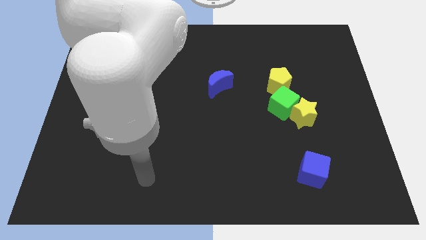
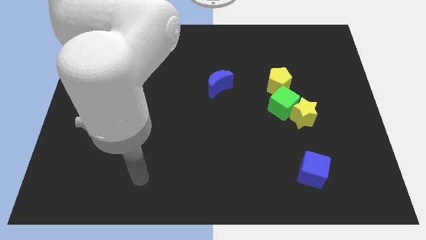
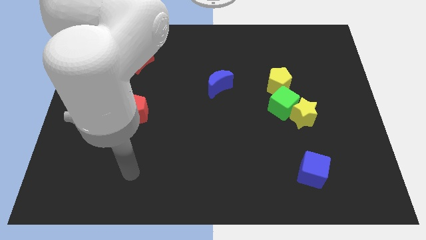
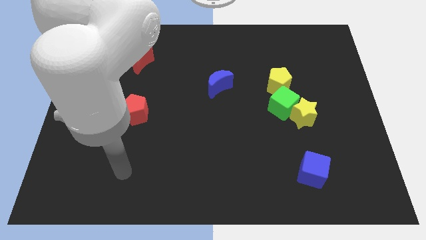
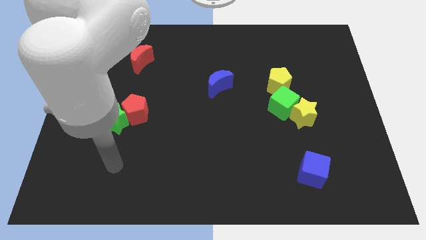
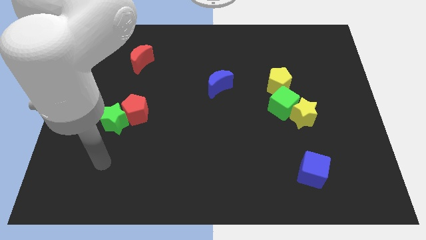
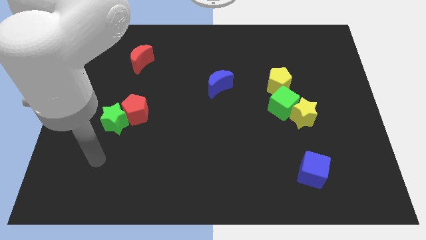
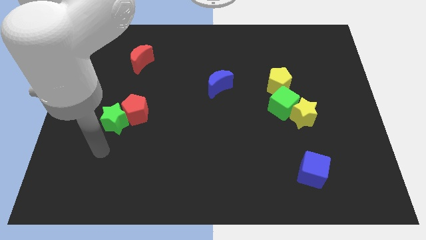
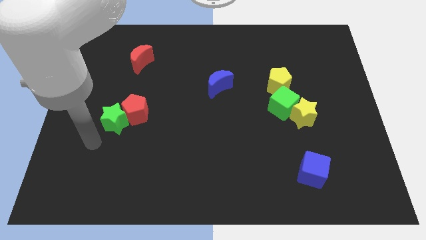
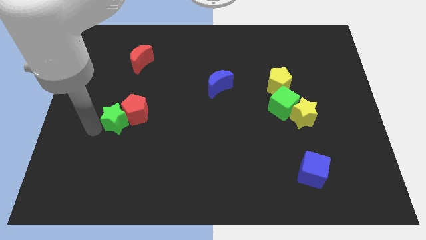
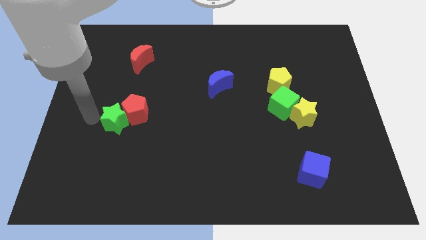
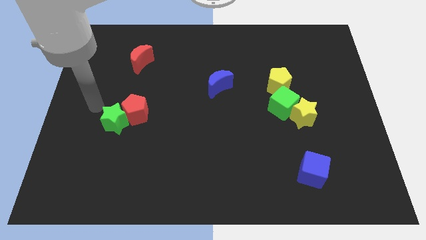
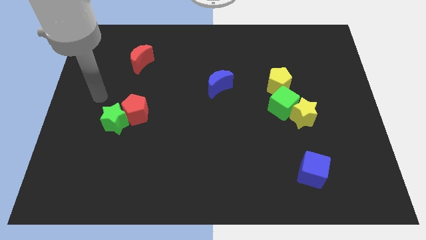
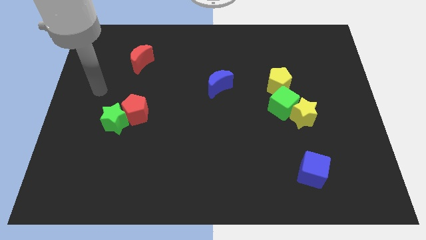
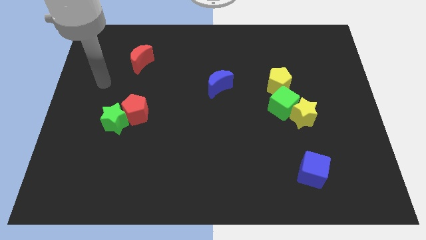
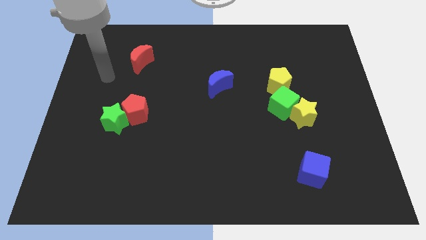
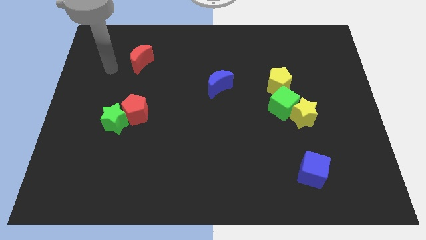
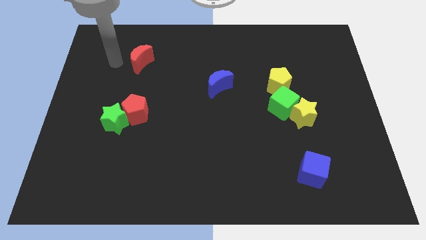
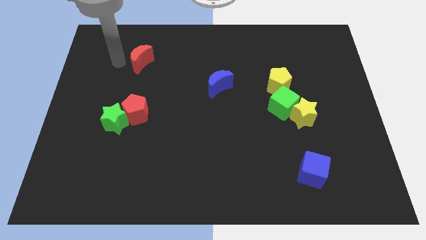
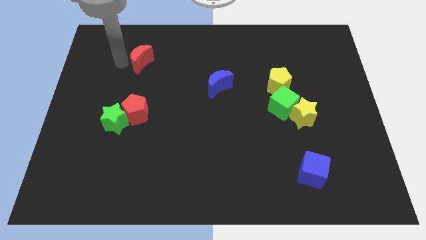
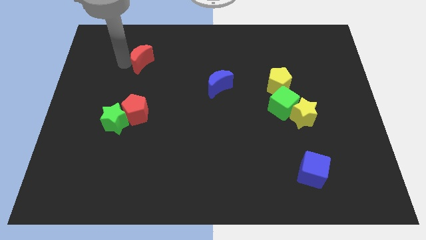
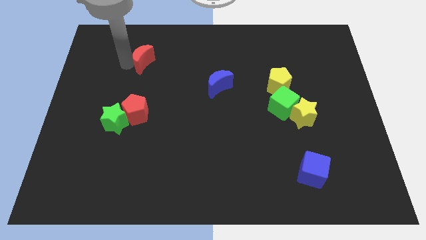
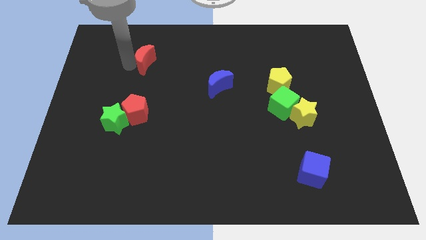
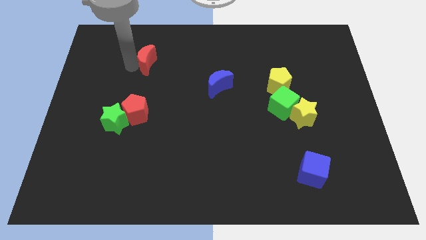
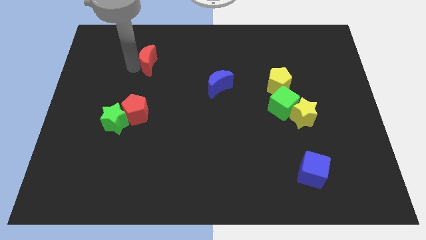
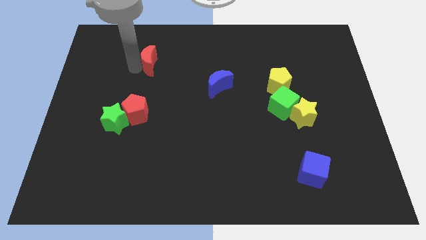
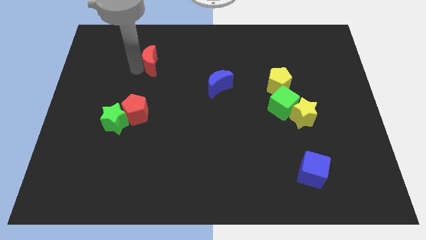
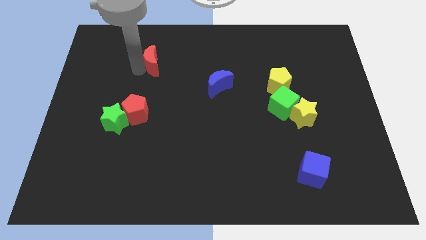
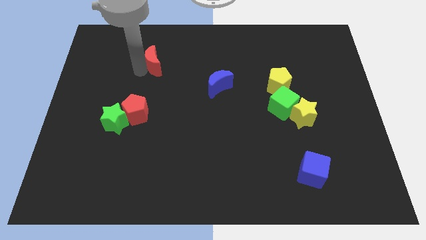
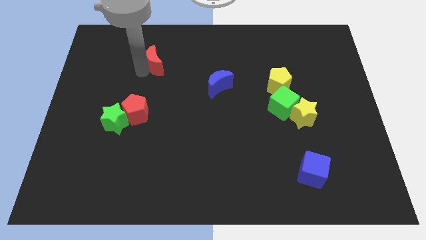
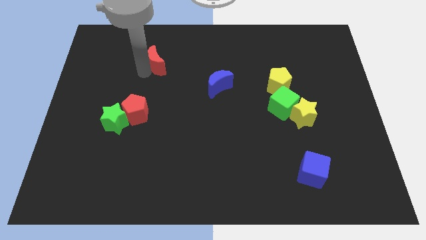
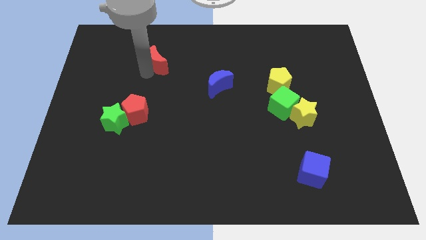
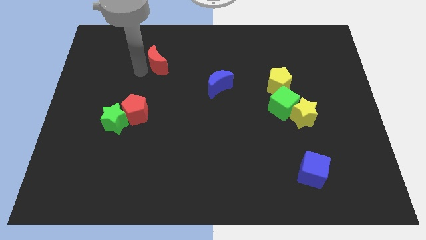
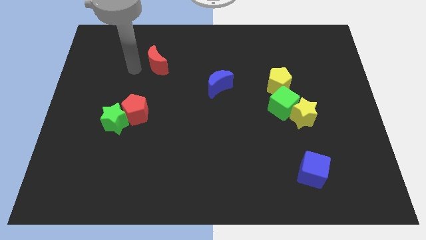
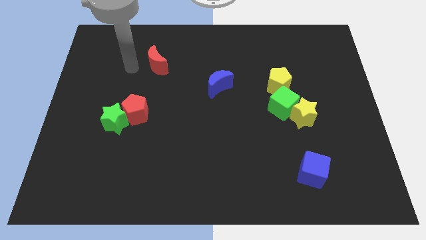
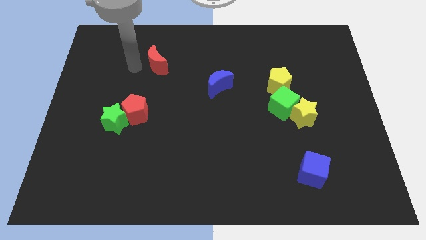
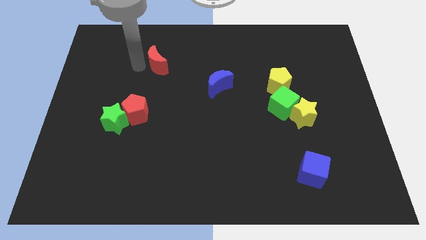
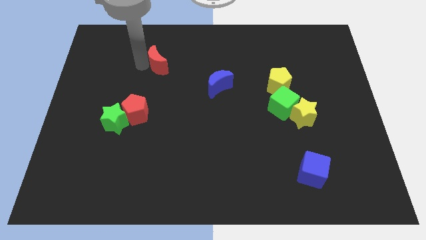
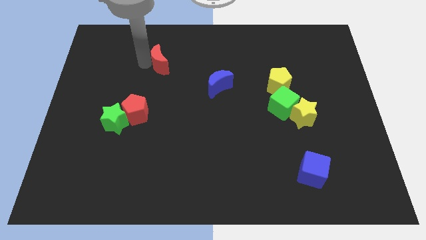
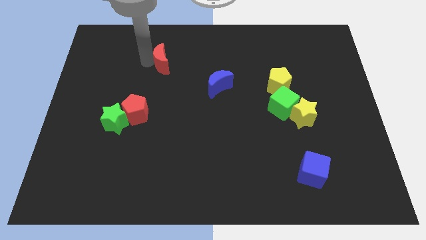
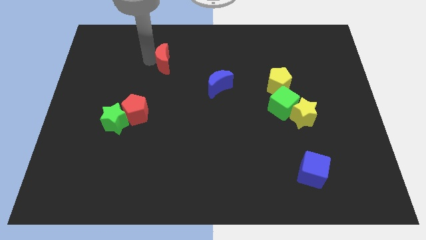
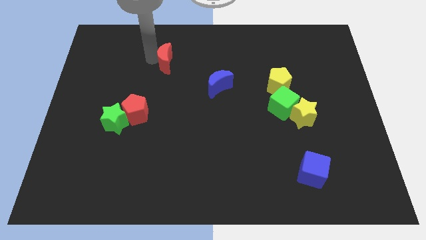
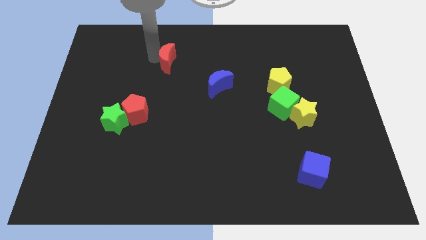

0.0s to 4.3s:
slightly push the red moon right

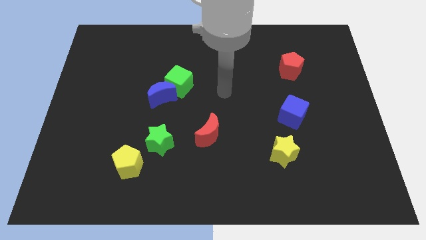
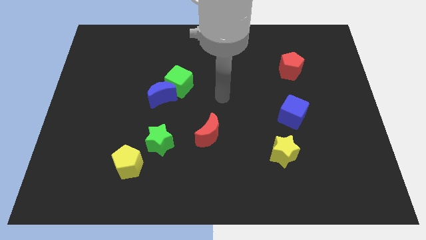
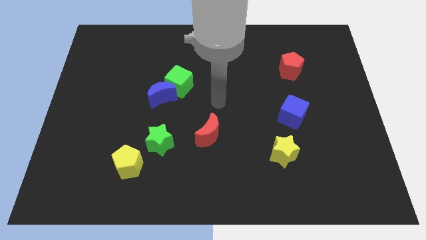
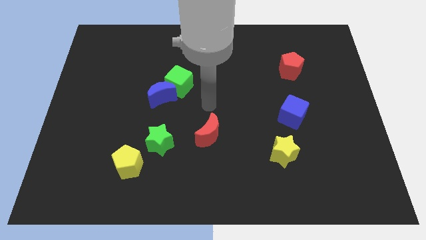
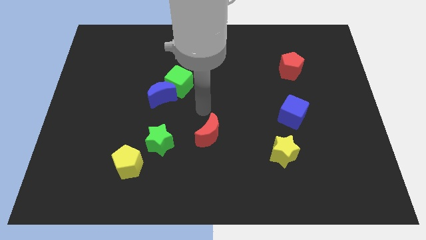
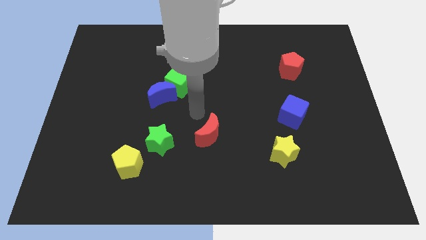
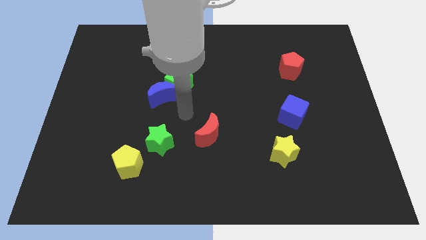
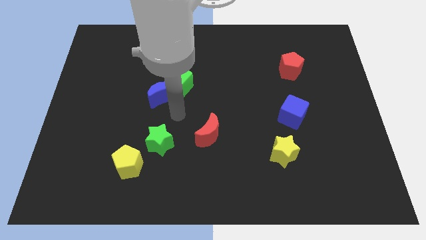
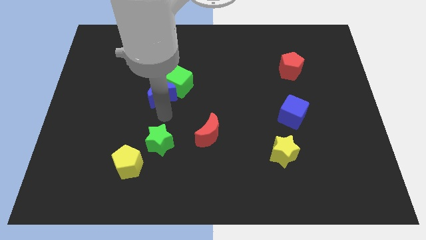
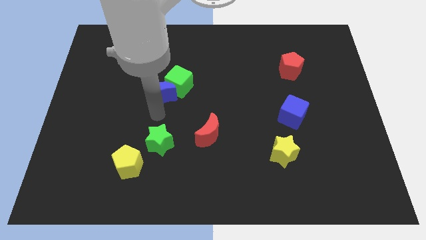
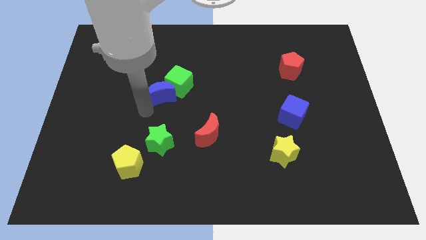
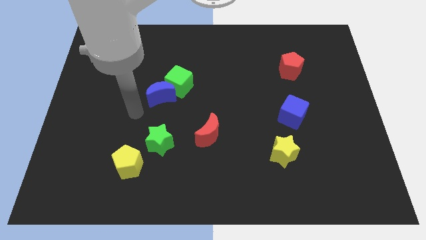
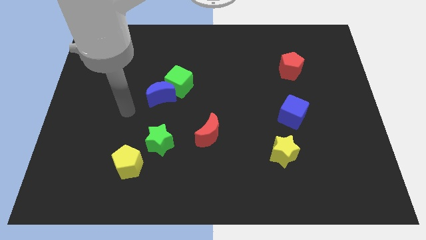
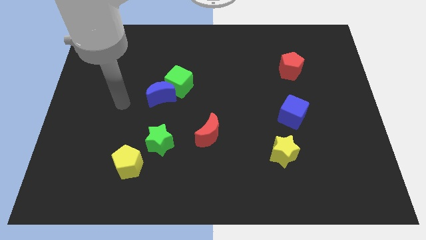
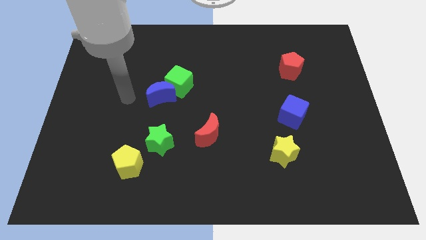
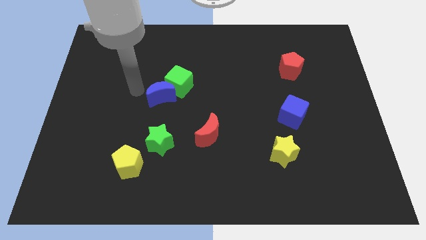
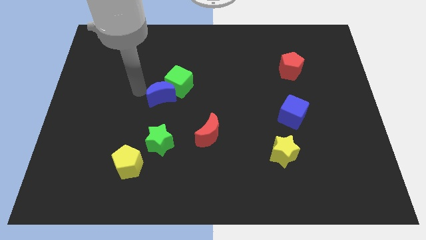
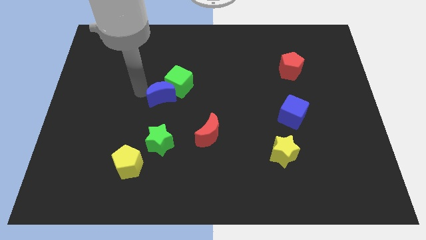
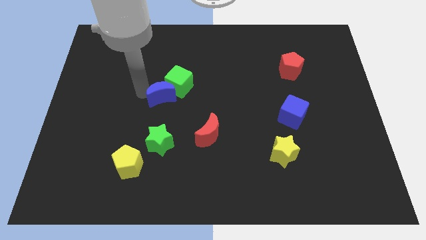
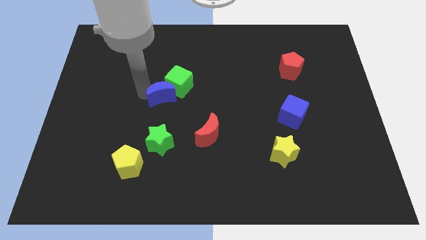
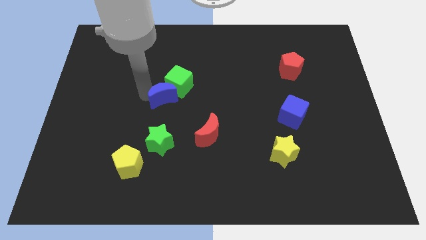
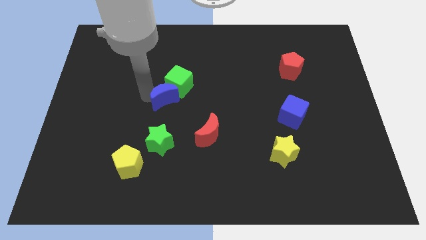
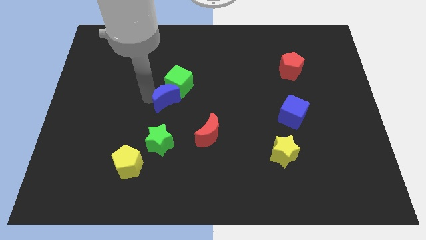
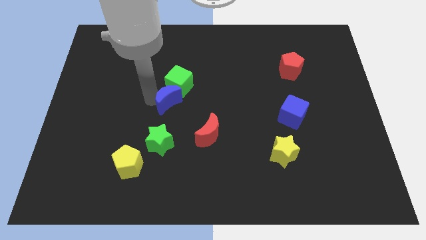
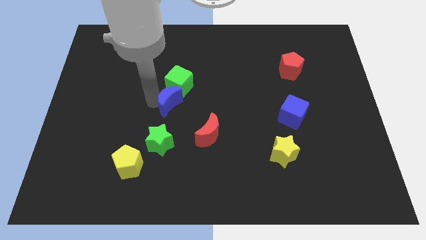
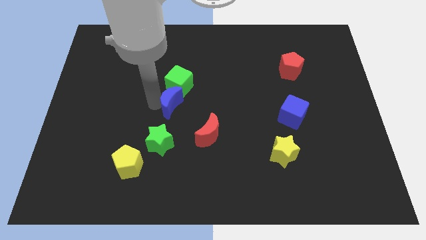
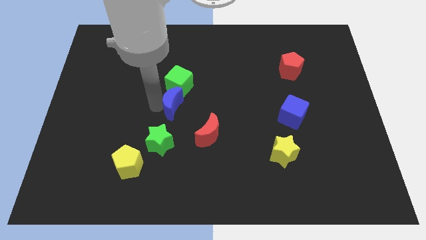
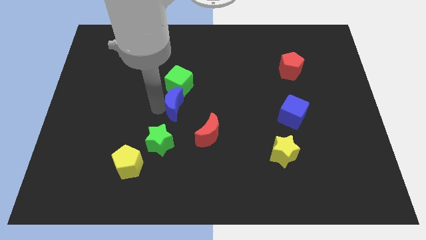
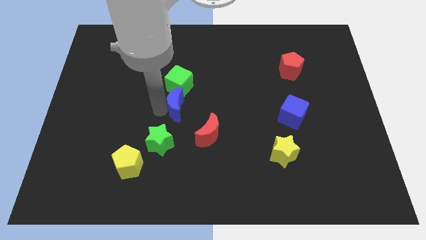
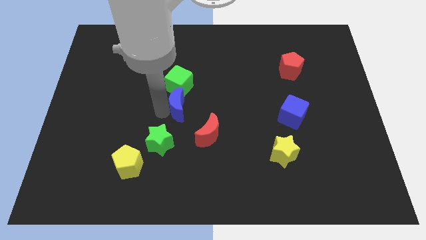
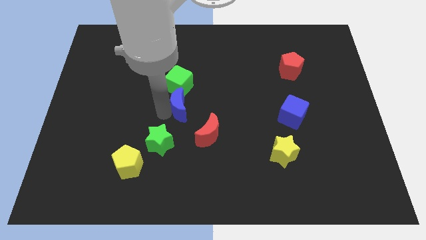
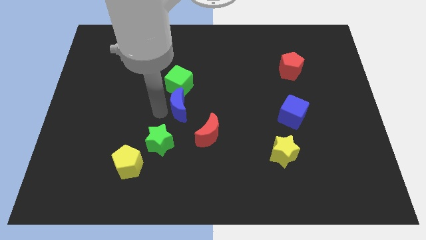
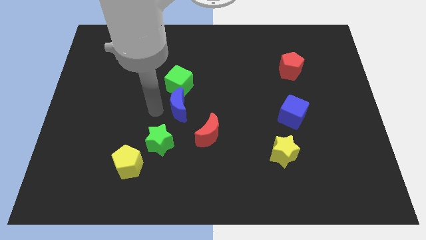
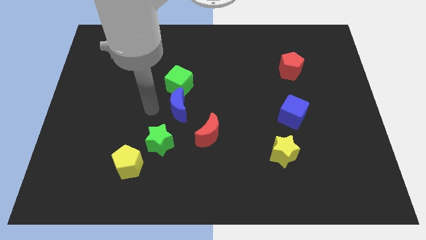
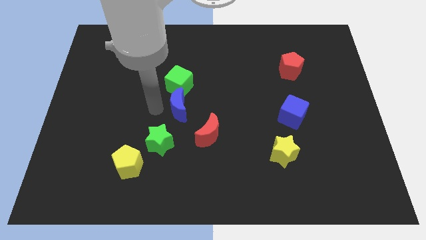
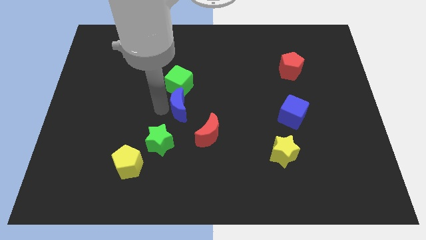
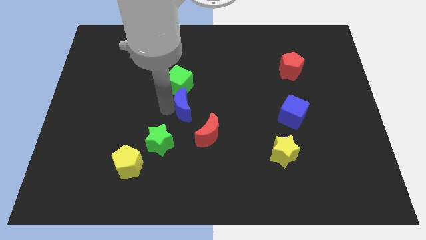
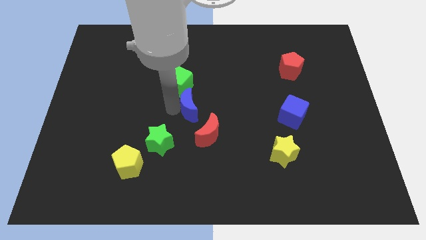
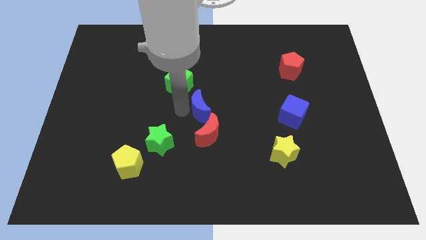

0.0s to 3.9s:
push the blue moon right somewhat
